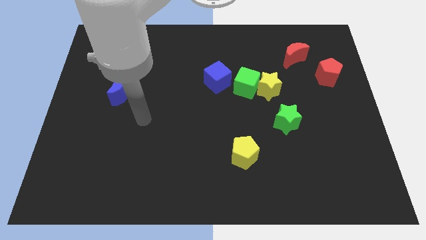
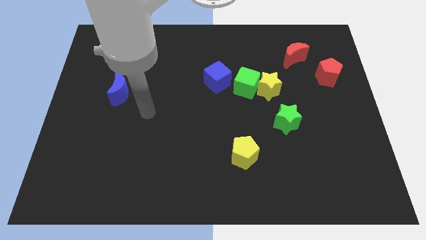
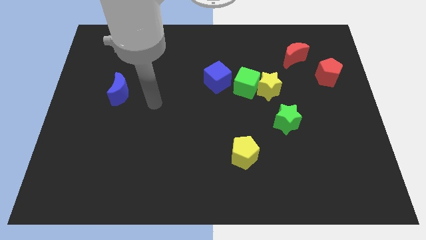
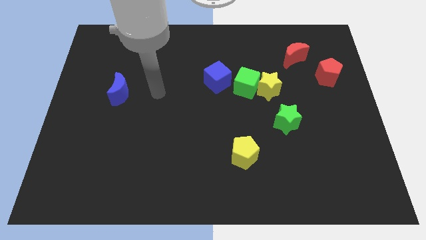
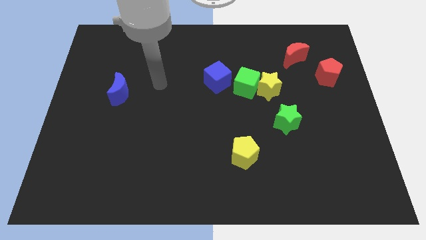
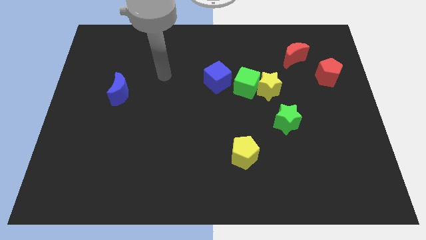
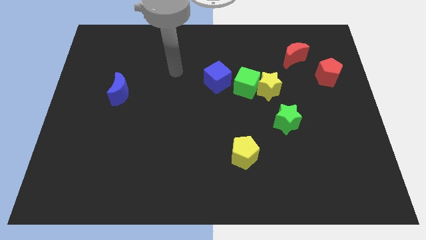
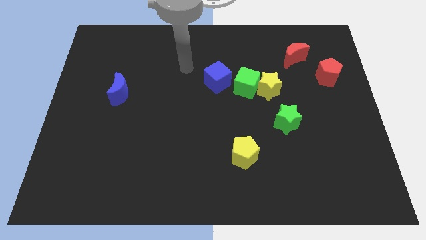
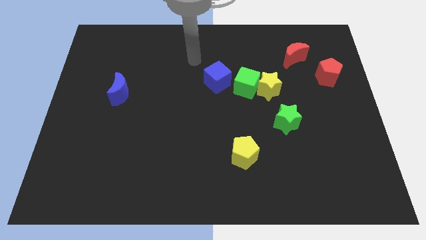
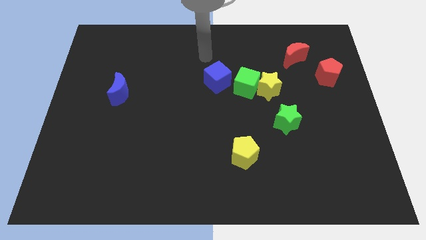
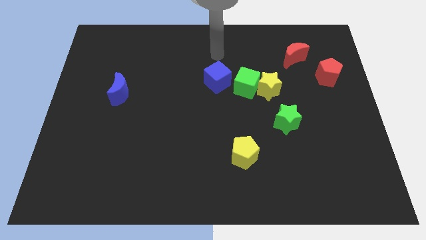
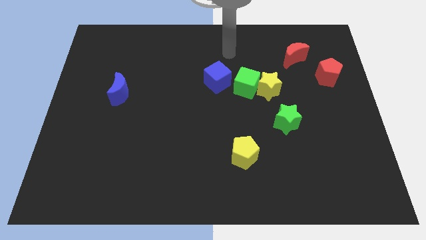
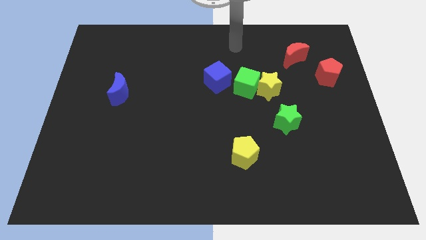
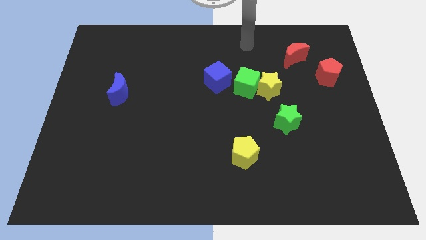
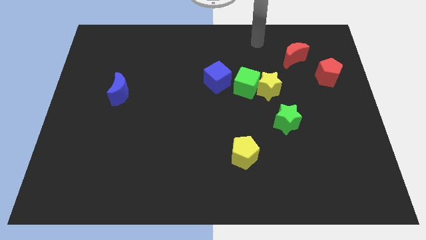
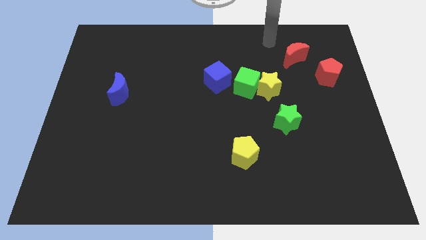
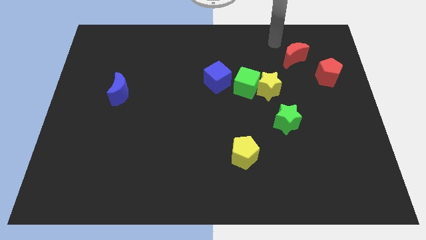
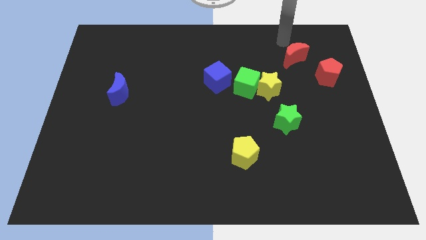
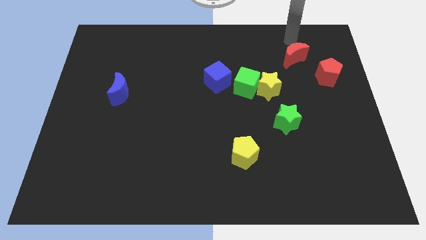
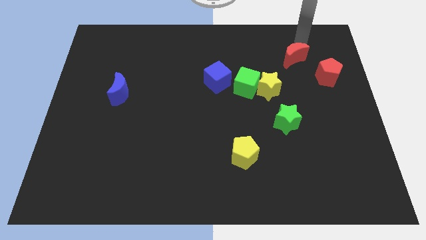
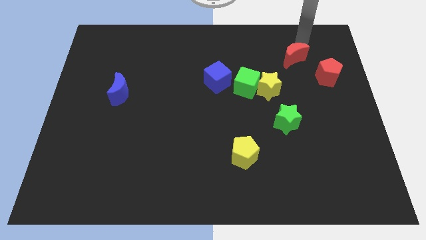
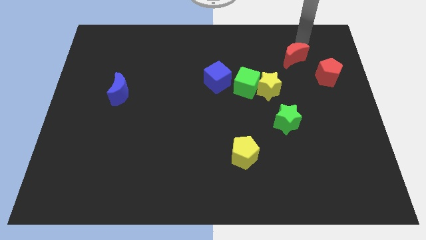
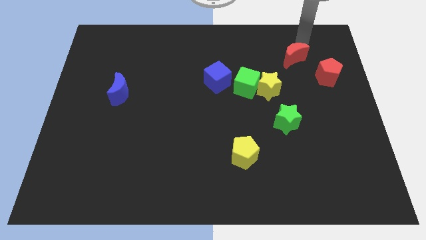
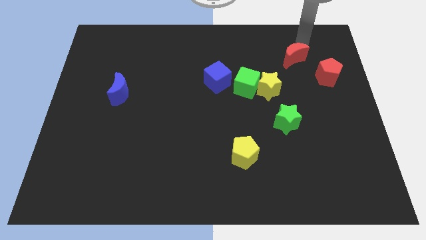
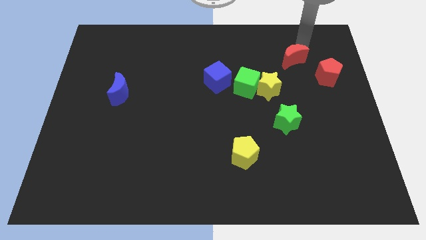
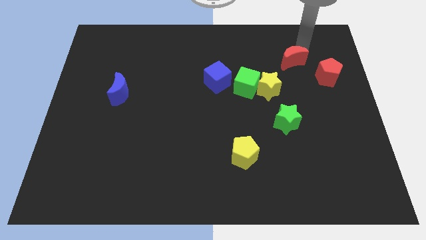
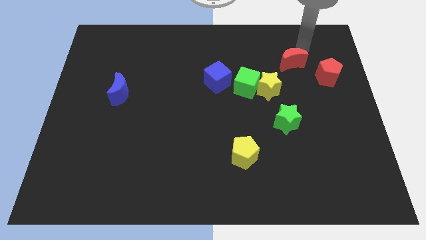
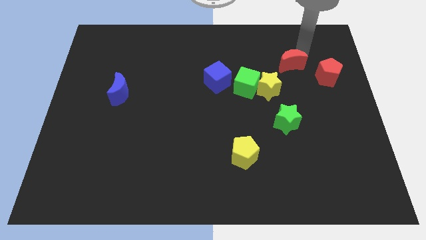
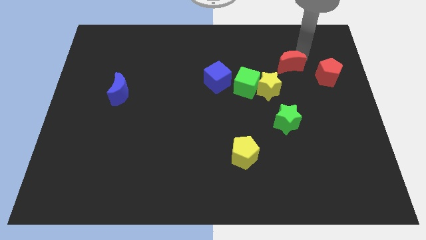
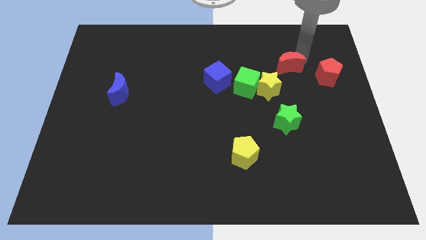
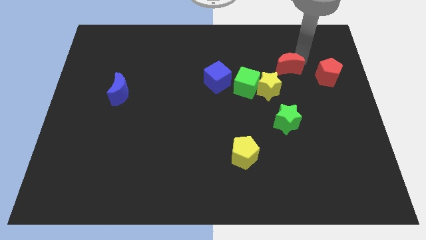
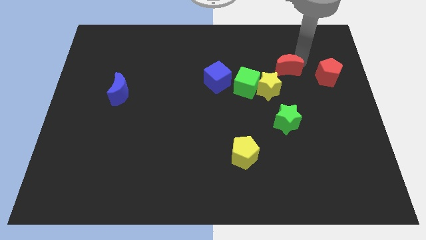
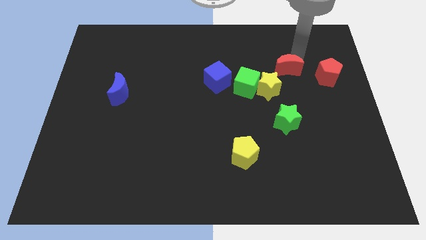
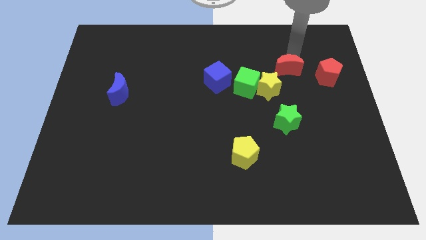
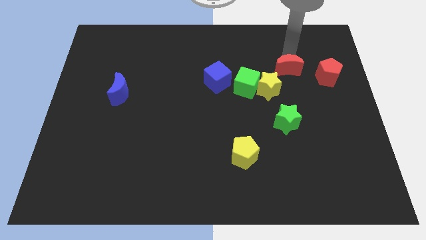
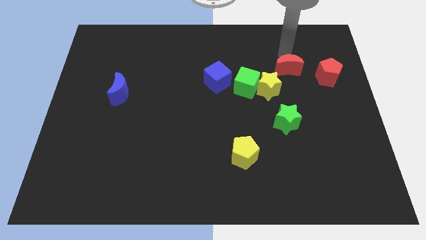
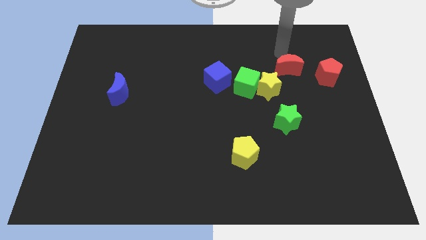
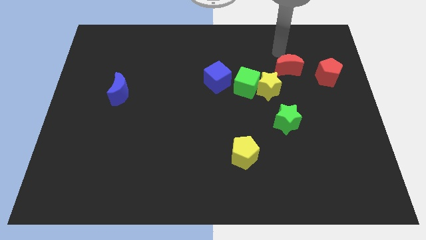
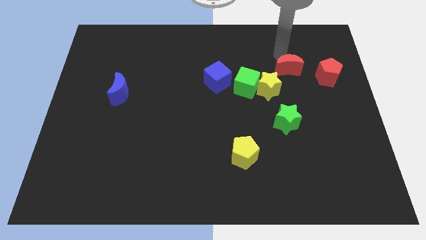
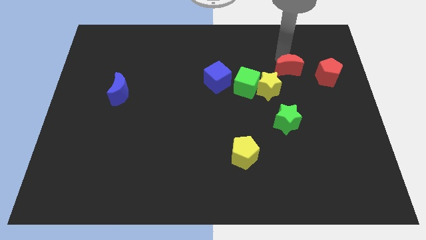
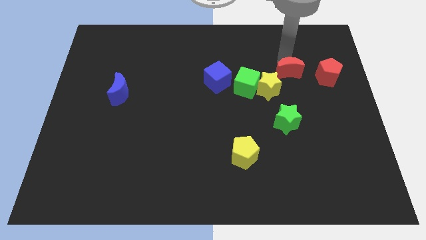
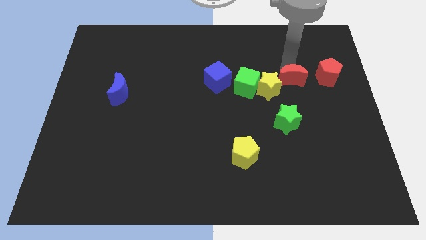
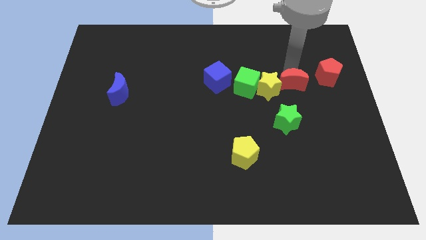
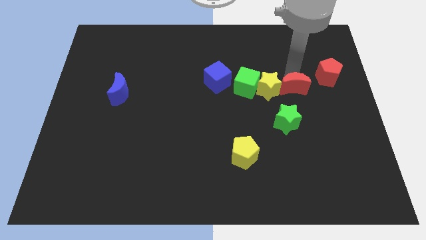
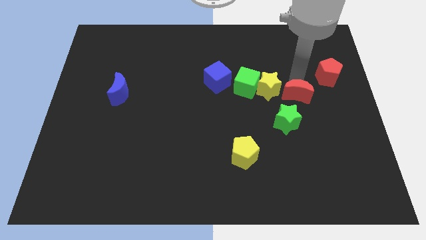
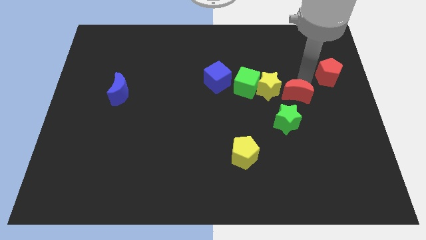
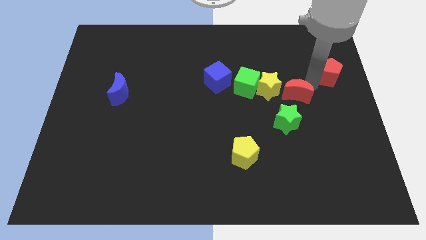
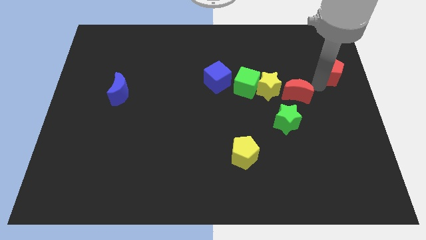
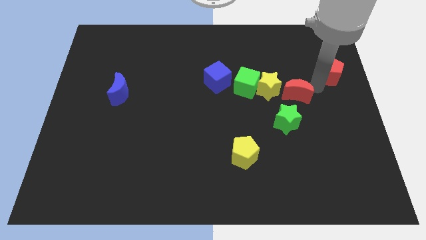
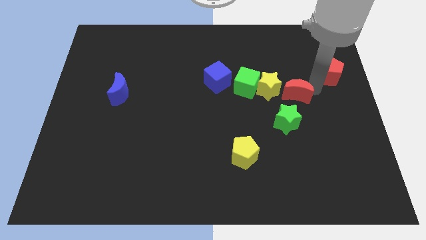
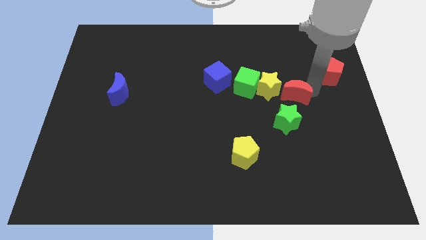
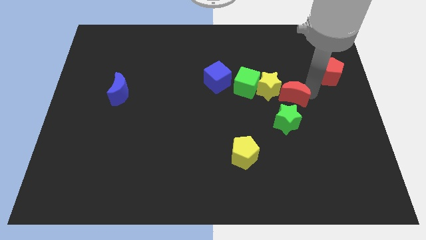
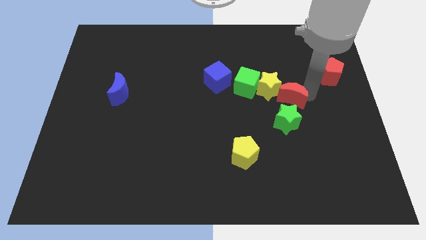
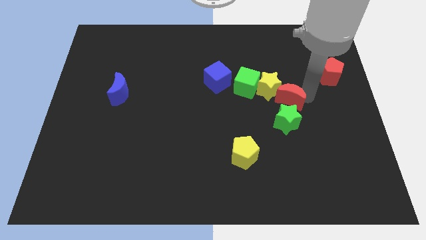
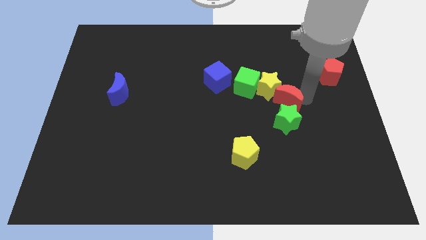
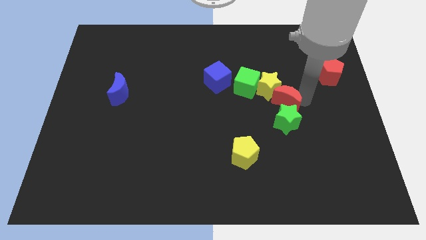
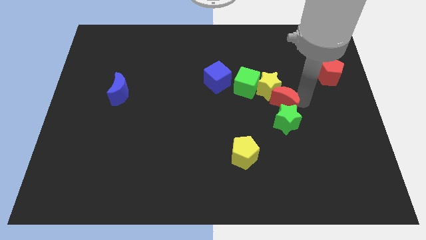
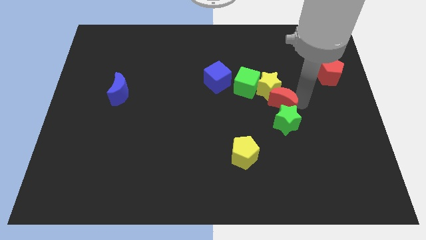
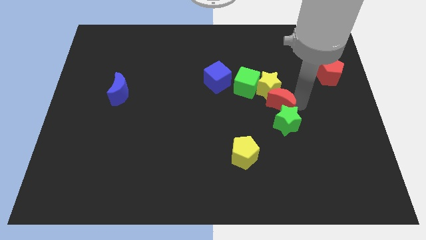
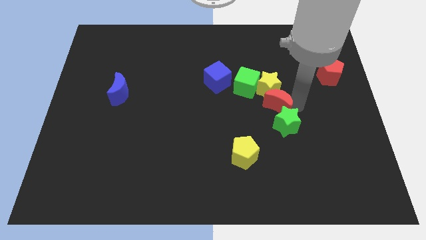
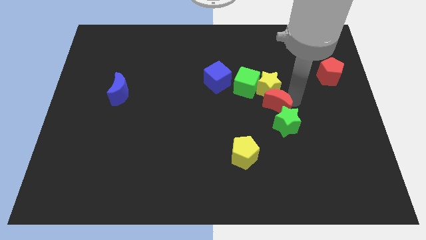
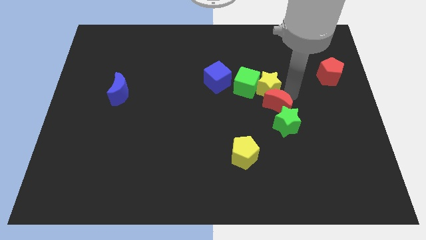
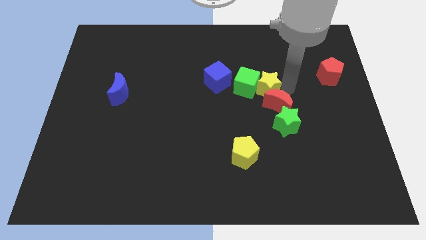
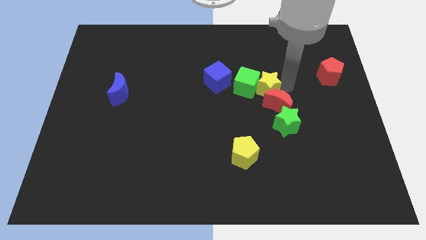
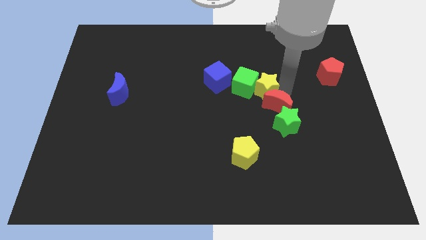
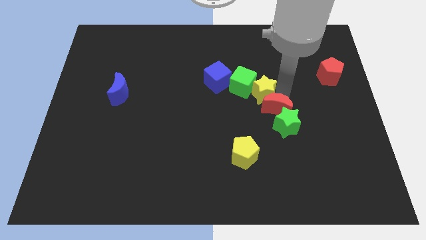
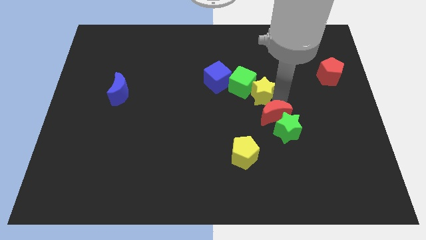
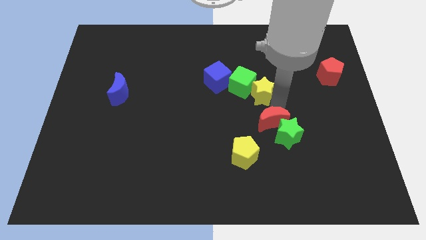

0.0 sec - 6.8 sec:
put the red moon diagonally up and to the right of the yellow pentagon

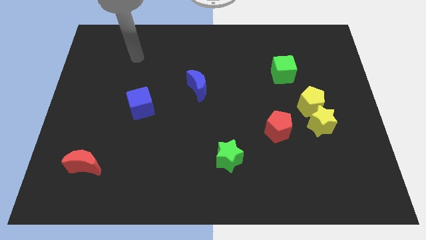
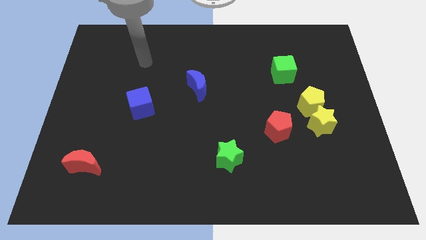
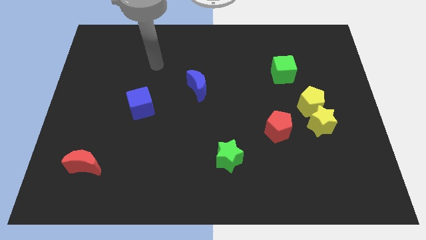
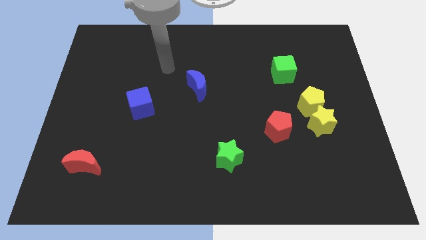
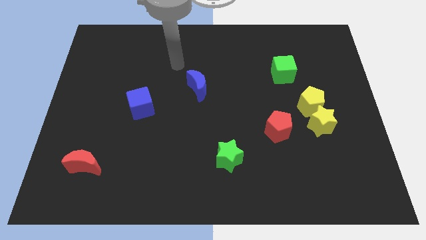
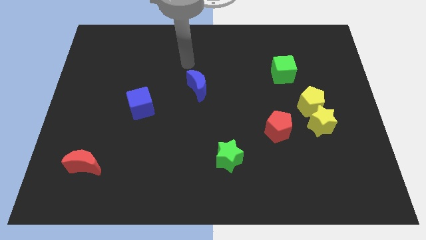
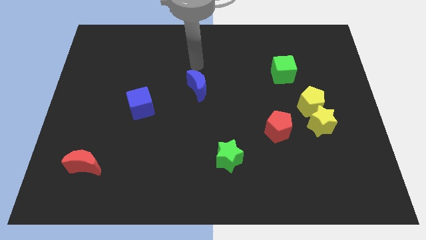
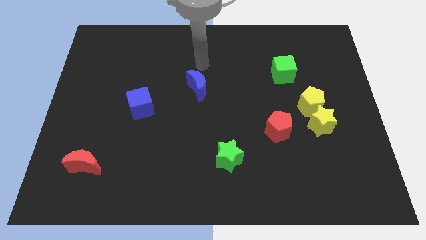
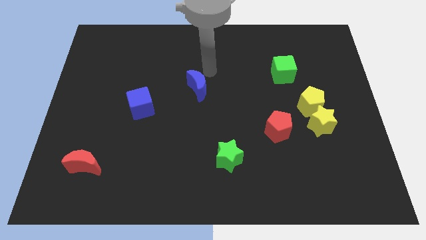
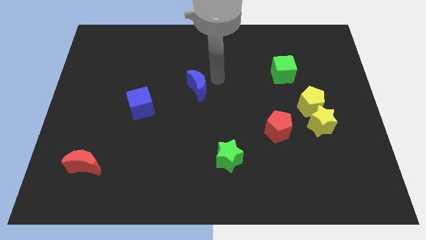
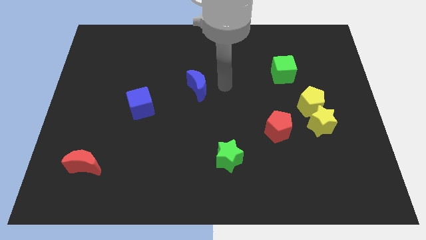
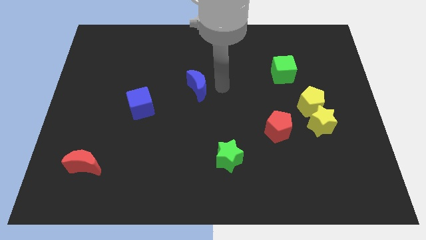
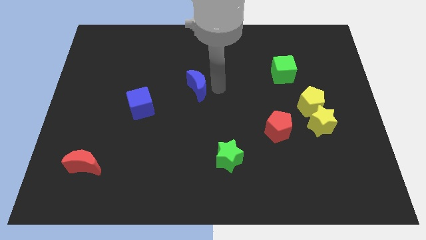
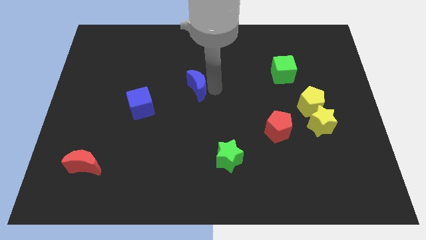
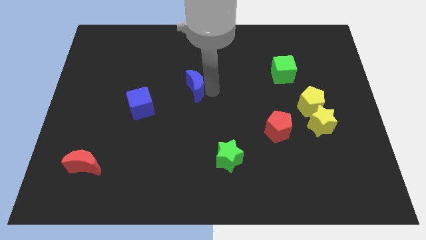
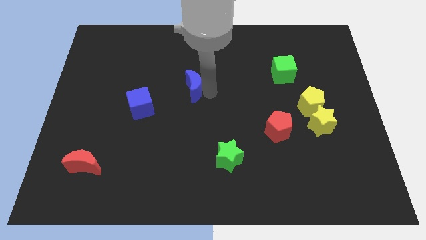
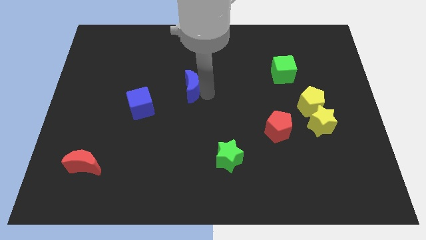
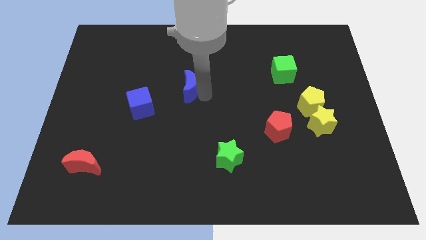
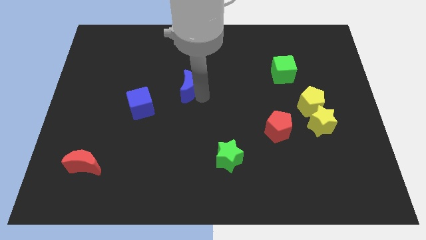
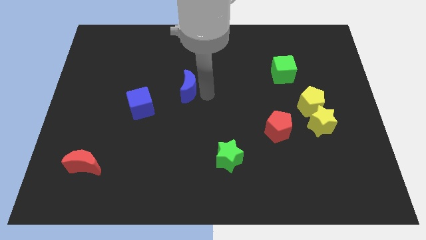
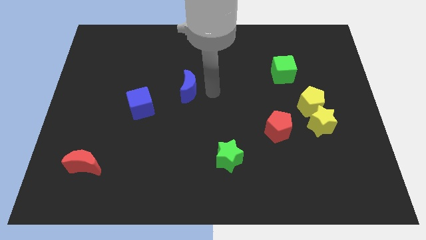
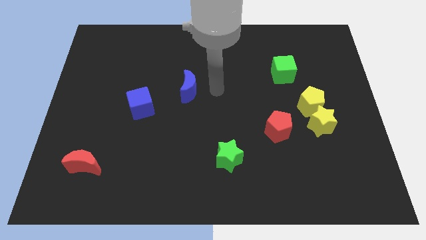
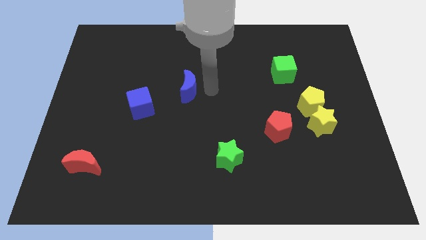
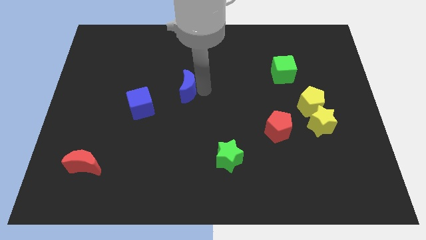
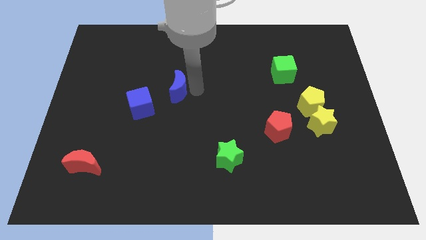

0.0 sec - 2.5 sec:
put the blue moon to the top right side of the blue cube
